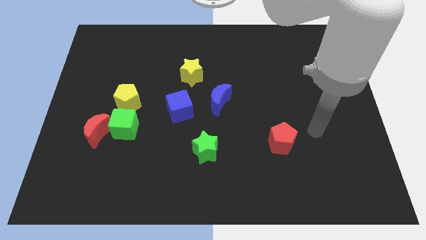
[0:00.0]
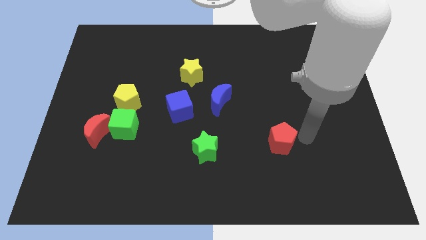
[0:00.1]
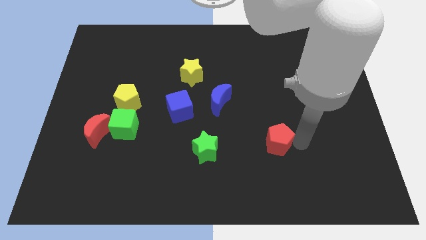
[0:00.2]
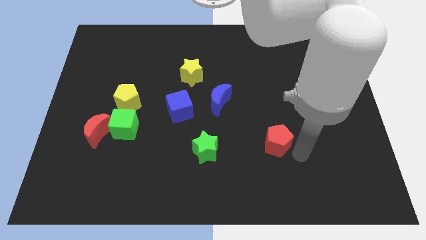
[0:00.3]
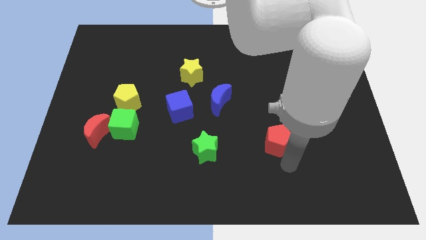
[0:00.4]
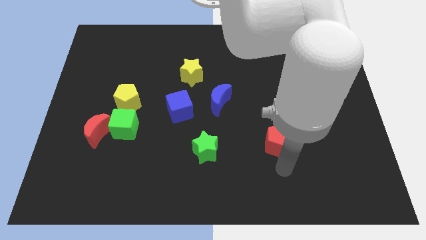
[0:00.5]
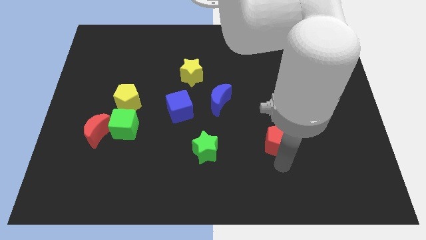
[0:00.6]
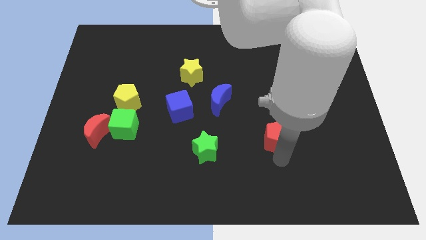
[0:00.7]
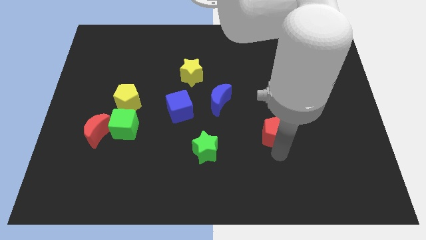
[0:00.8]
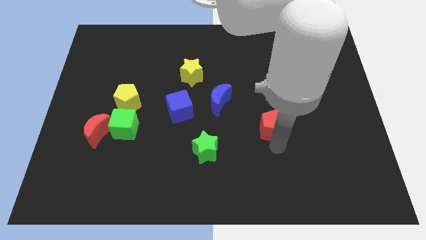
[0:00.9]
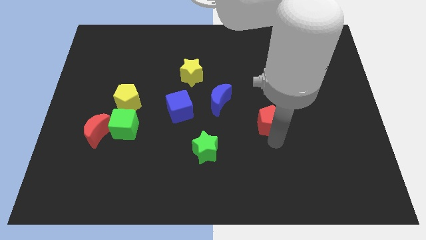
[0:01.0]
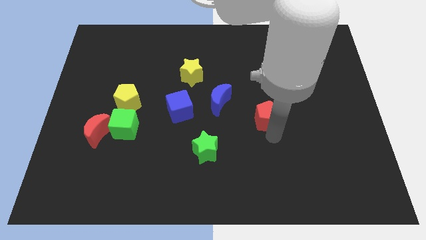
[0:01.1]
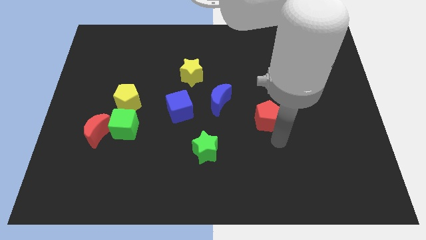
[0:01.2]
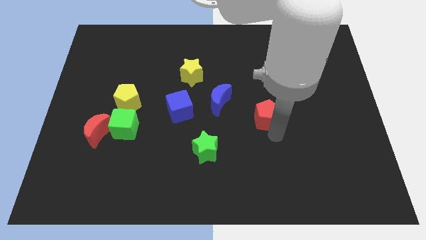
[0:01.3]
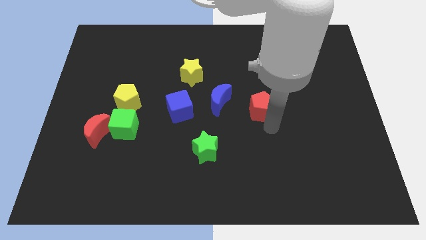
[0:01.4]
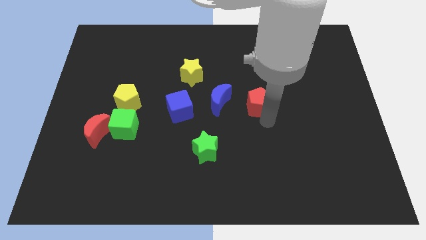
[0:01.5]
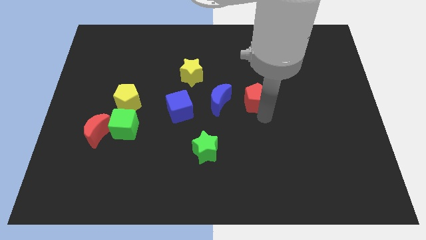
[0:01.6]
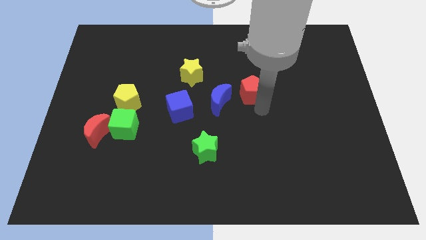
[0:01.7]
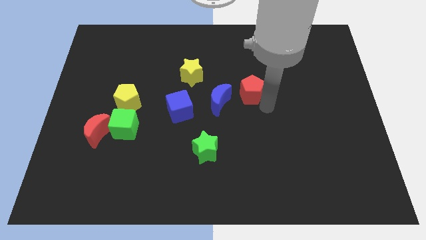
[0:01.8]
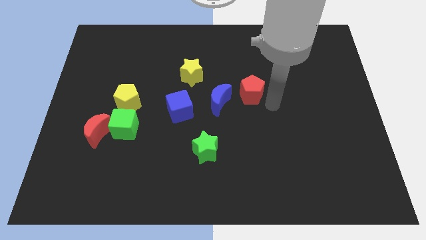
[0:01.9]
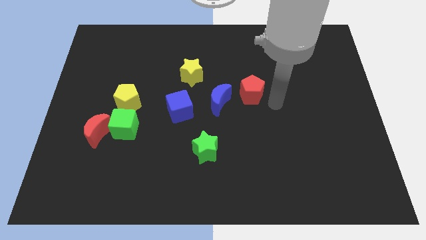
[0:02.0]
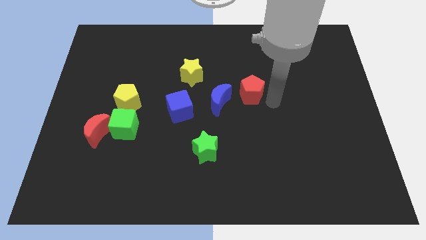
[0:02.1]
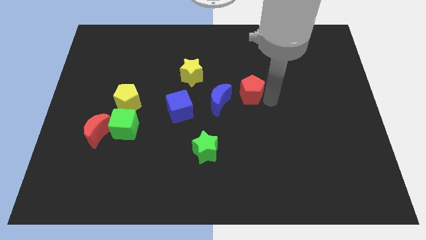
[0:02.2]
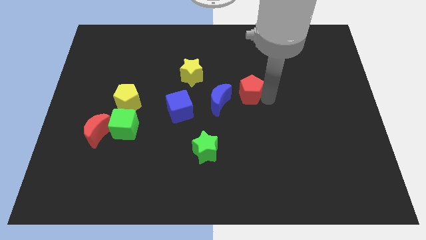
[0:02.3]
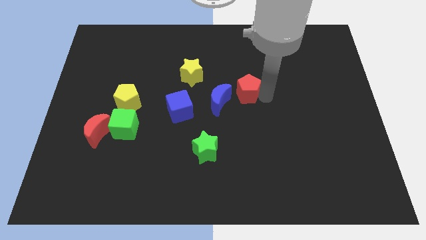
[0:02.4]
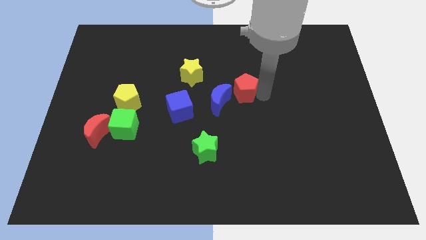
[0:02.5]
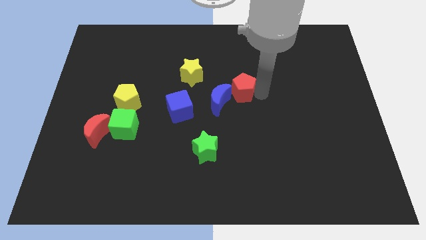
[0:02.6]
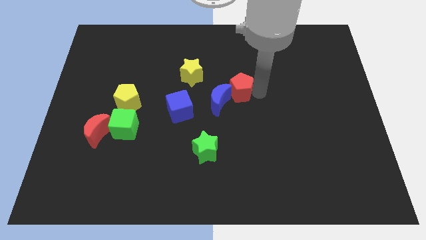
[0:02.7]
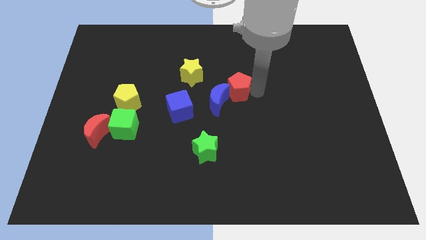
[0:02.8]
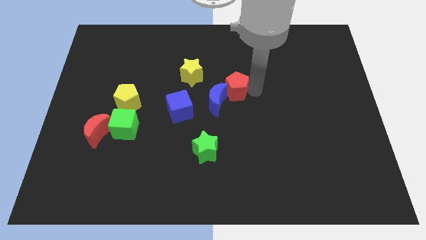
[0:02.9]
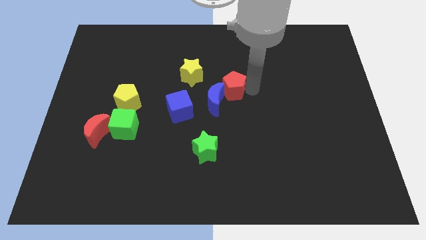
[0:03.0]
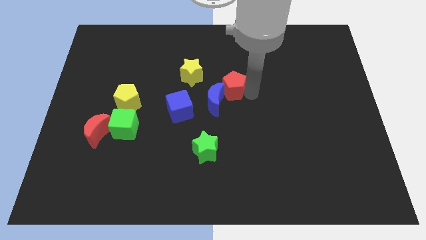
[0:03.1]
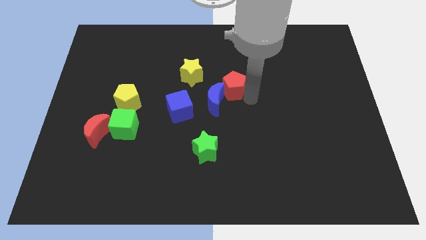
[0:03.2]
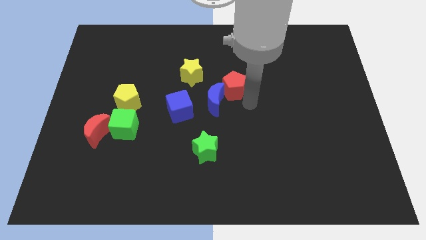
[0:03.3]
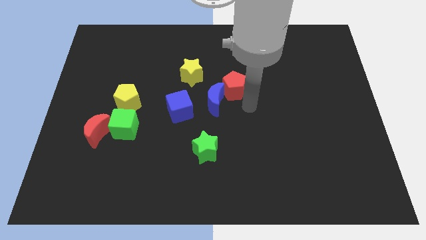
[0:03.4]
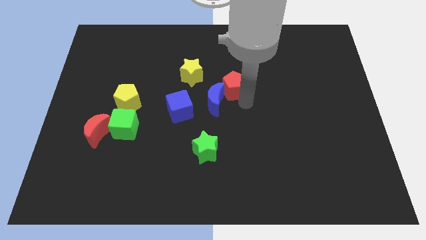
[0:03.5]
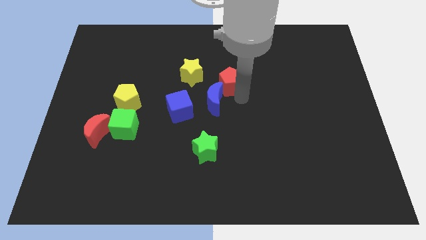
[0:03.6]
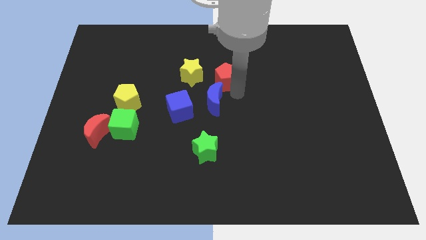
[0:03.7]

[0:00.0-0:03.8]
slide the red pentagon up and then to the left

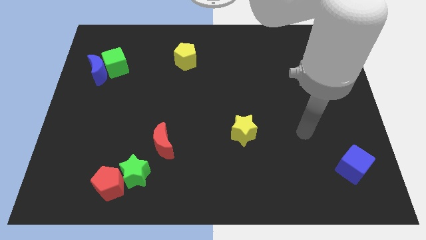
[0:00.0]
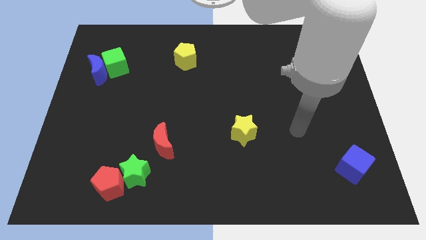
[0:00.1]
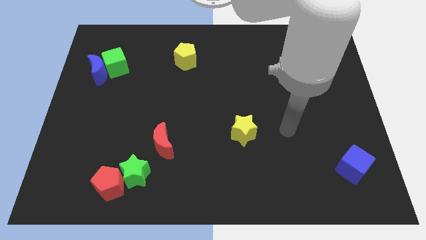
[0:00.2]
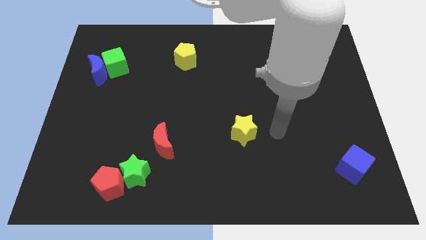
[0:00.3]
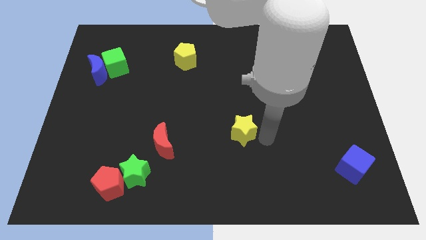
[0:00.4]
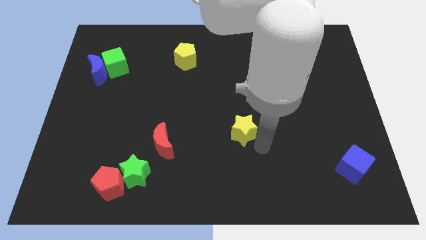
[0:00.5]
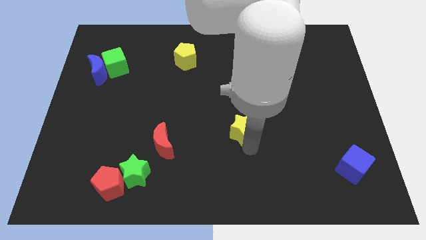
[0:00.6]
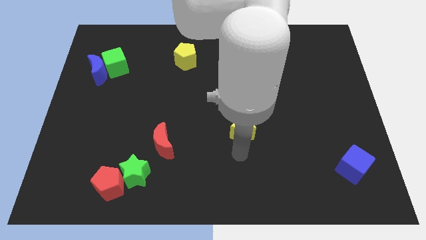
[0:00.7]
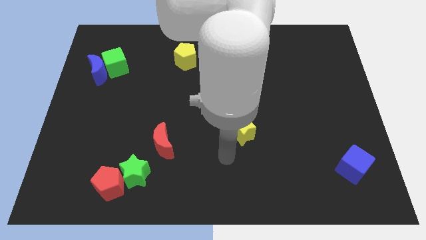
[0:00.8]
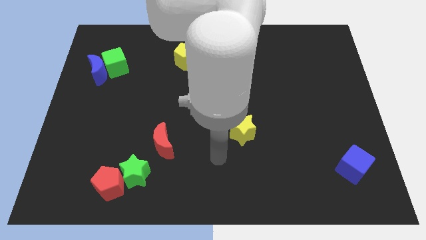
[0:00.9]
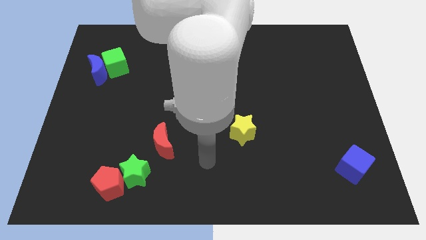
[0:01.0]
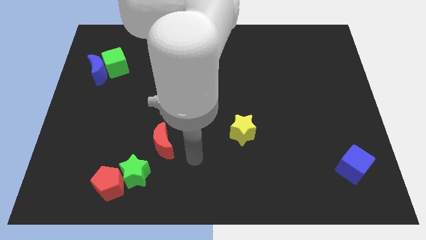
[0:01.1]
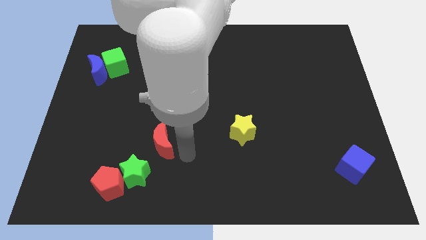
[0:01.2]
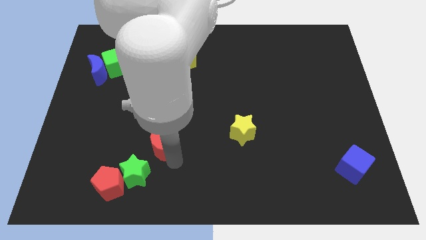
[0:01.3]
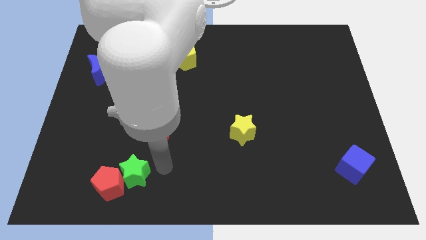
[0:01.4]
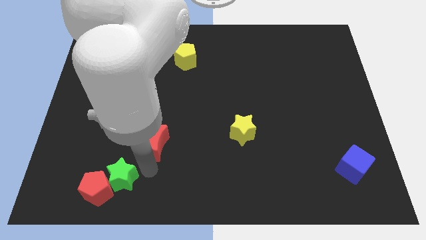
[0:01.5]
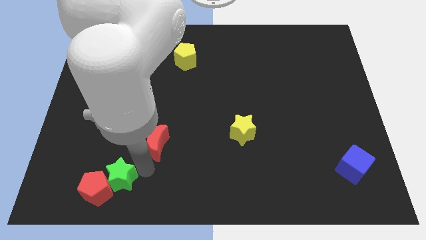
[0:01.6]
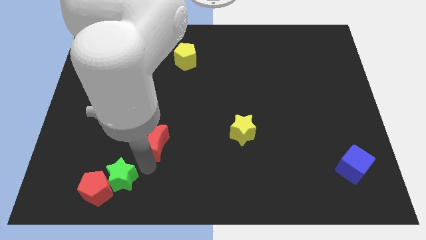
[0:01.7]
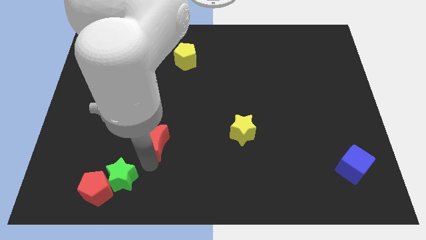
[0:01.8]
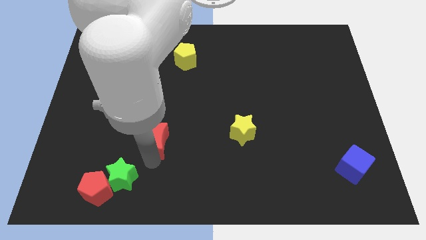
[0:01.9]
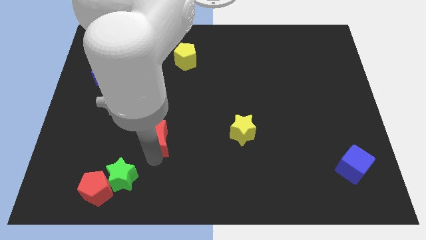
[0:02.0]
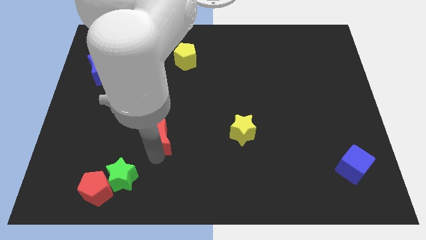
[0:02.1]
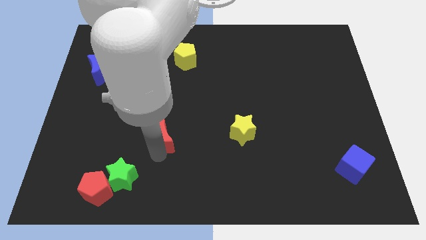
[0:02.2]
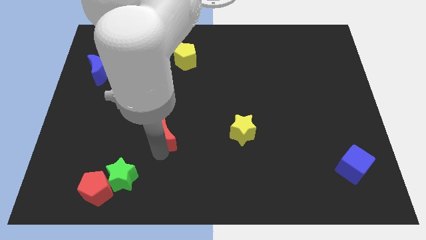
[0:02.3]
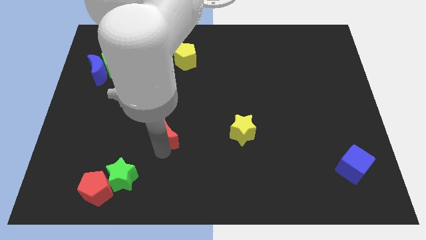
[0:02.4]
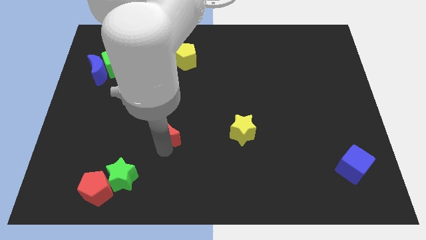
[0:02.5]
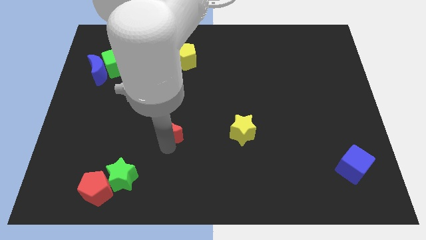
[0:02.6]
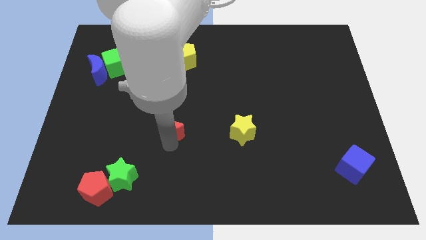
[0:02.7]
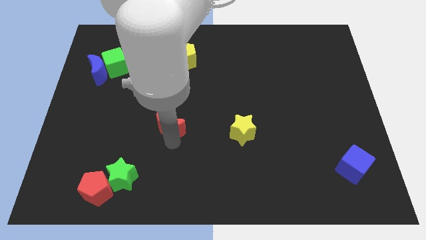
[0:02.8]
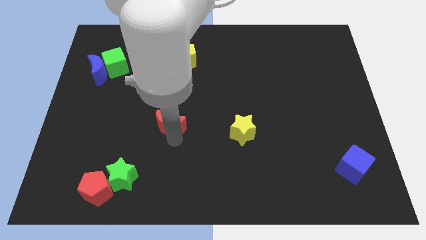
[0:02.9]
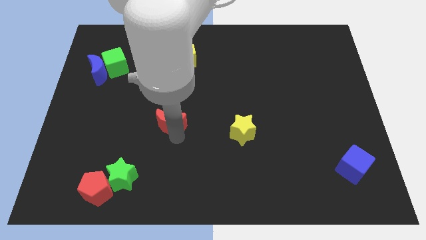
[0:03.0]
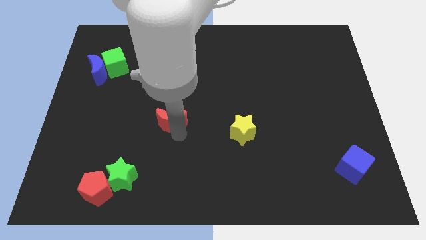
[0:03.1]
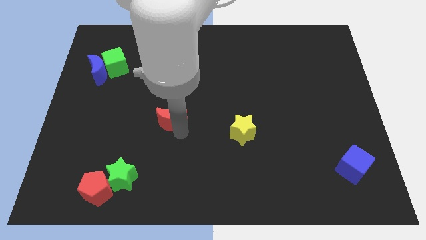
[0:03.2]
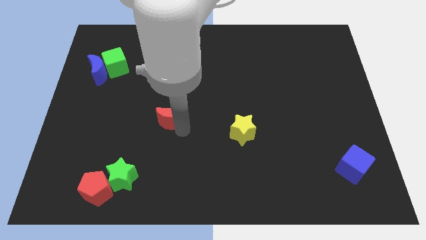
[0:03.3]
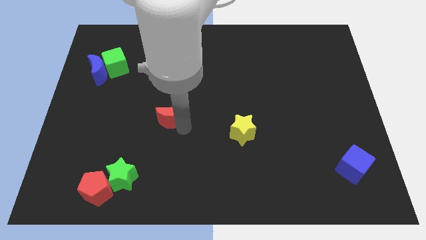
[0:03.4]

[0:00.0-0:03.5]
slightly move the red moon upwards

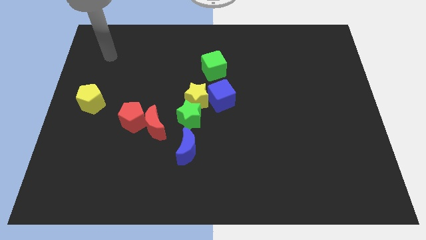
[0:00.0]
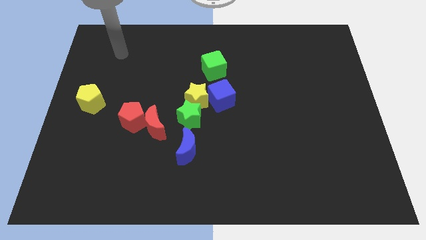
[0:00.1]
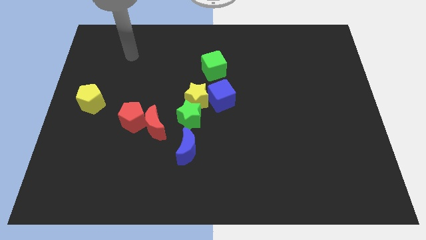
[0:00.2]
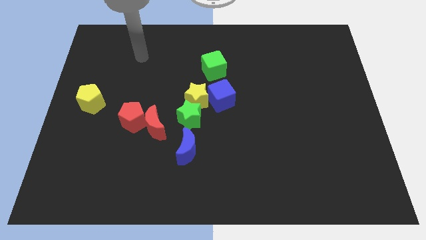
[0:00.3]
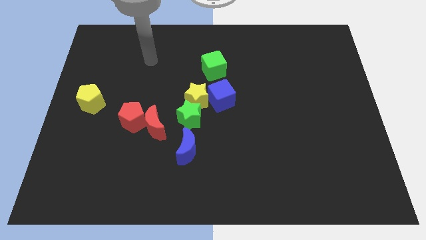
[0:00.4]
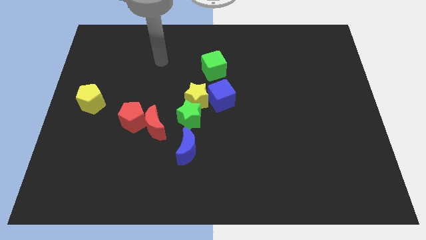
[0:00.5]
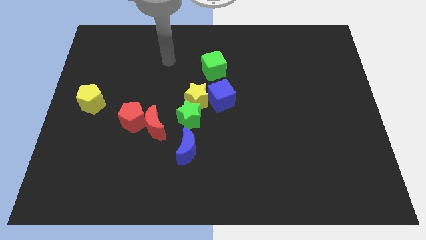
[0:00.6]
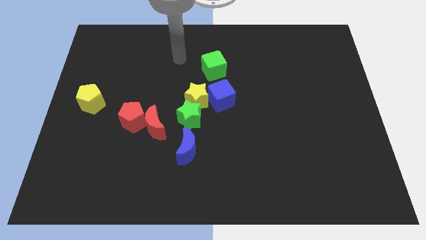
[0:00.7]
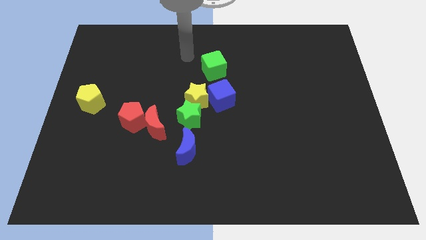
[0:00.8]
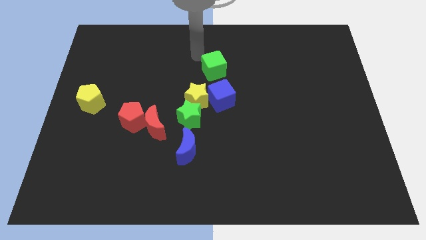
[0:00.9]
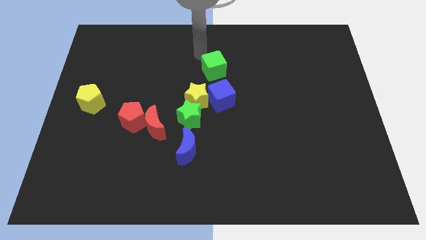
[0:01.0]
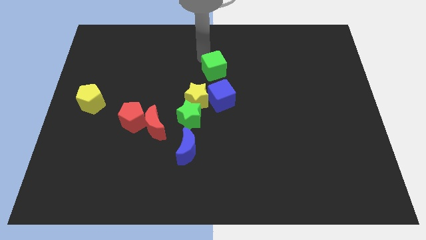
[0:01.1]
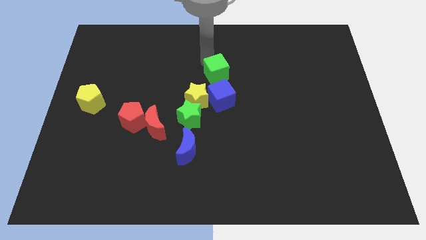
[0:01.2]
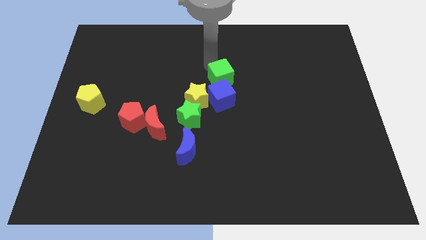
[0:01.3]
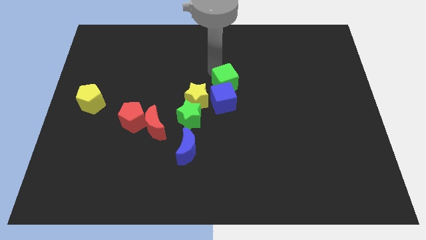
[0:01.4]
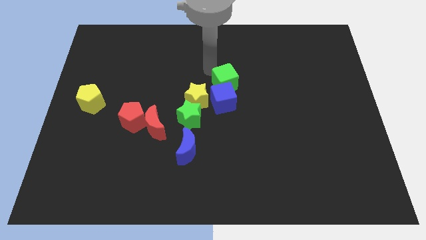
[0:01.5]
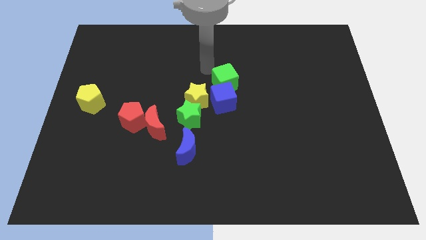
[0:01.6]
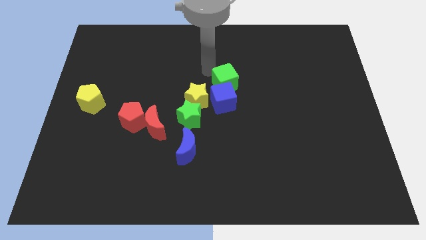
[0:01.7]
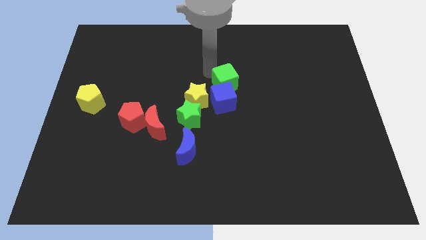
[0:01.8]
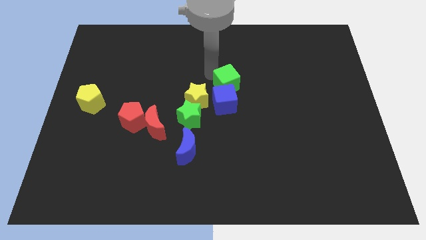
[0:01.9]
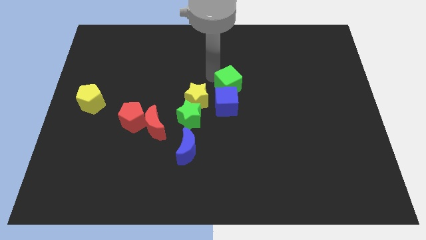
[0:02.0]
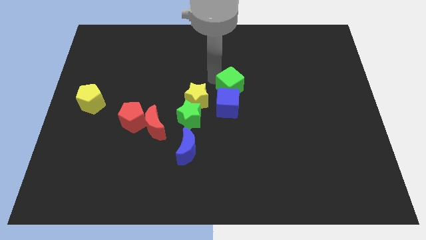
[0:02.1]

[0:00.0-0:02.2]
slightly move the green cube diagonally down and right
